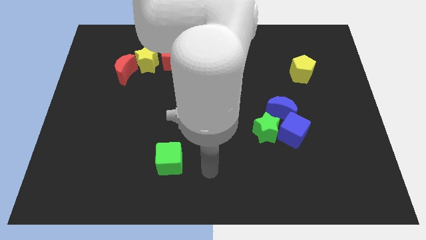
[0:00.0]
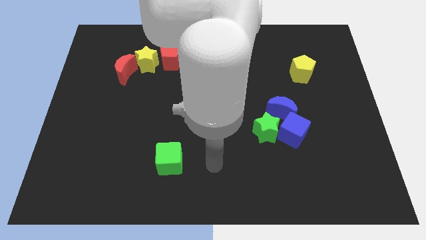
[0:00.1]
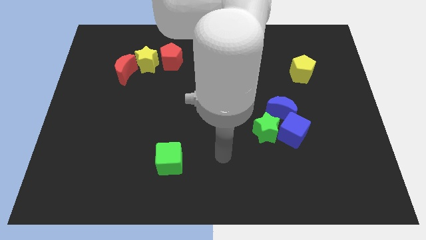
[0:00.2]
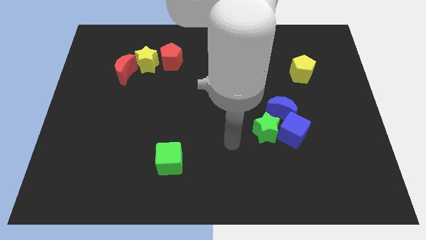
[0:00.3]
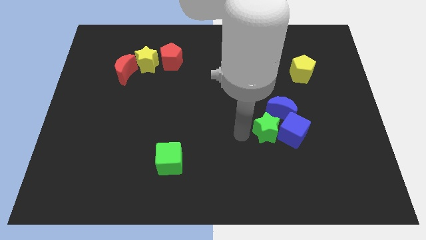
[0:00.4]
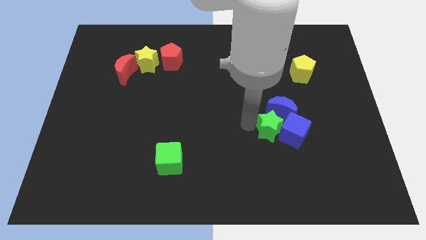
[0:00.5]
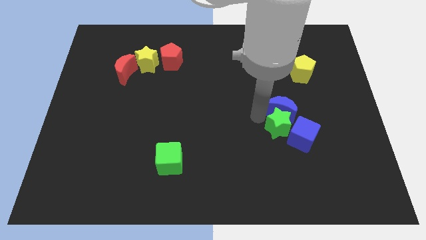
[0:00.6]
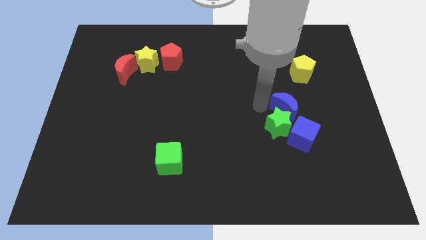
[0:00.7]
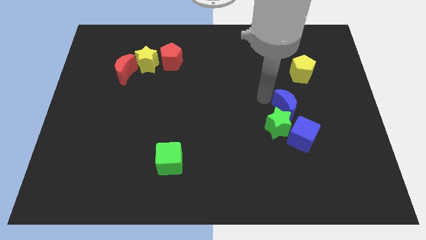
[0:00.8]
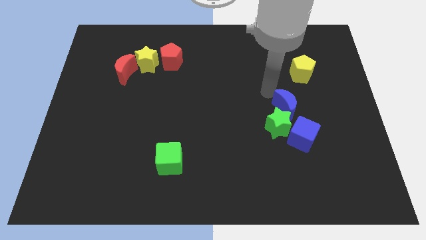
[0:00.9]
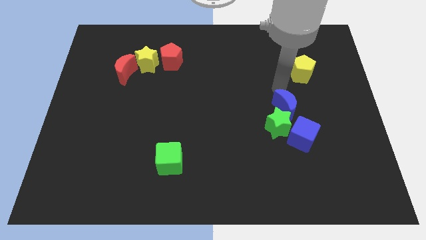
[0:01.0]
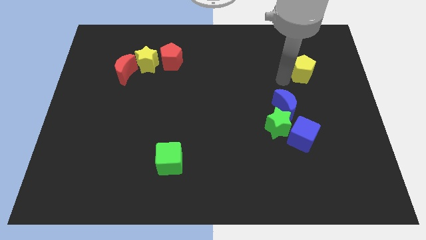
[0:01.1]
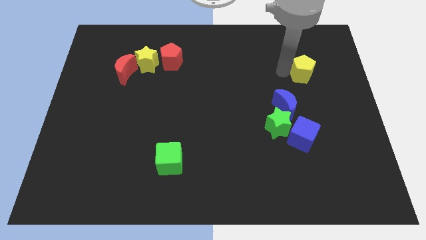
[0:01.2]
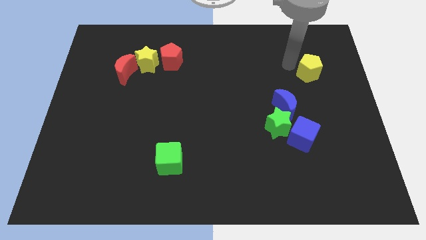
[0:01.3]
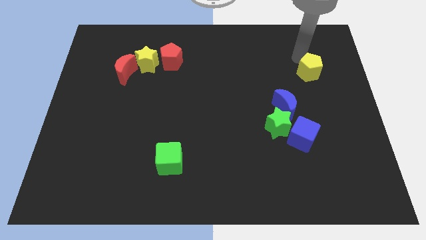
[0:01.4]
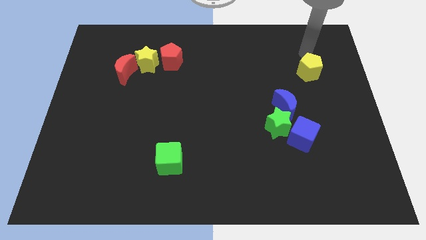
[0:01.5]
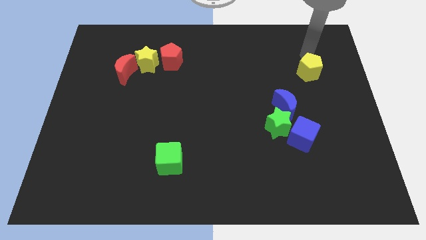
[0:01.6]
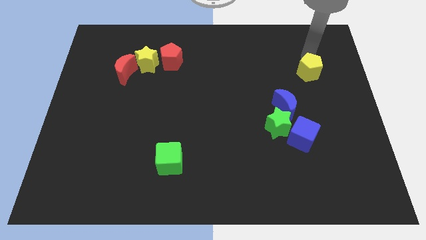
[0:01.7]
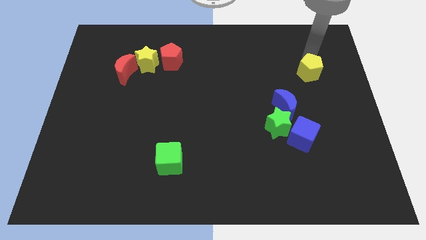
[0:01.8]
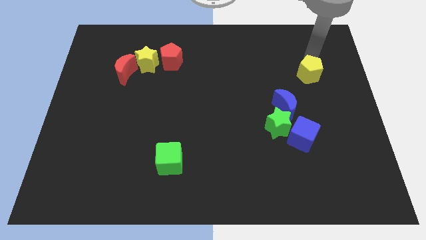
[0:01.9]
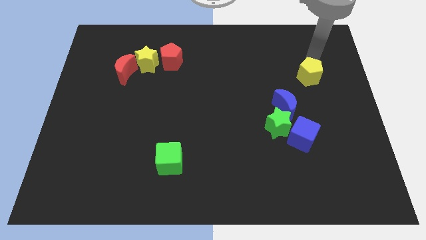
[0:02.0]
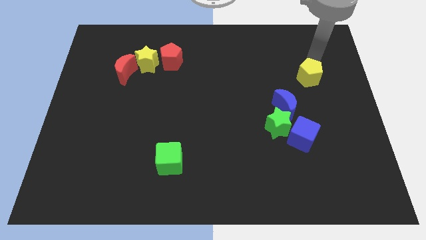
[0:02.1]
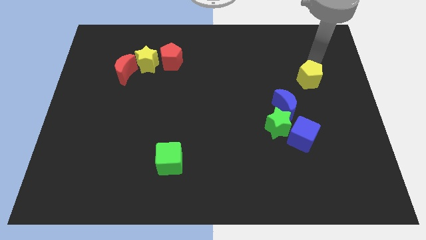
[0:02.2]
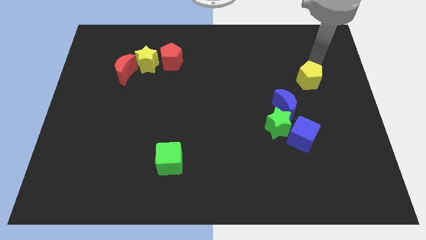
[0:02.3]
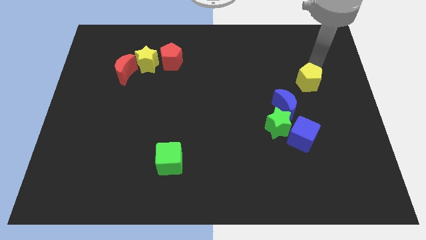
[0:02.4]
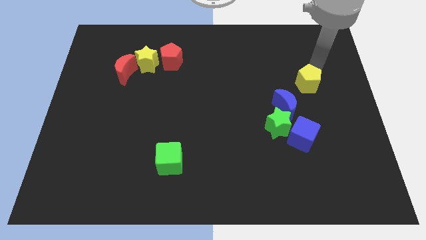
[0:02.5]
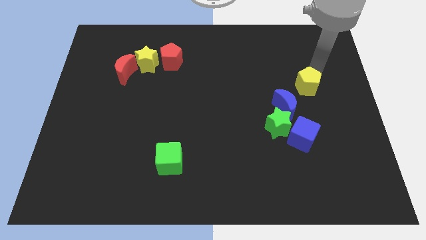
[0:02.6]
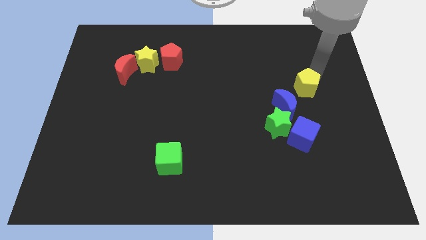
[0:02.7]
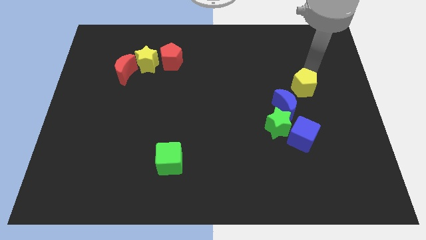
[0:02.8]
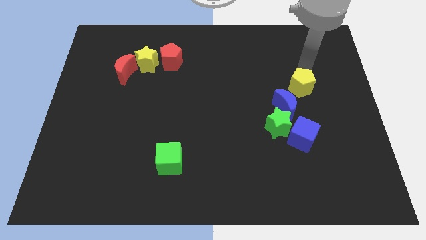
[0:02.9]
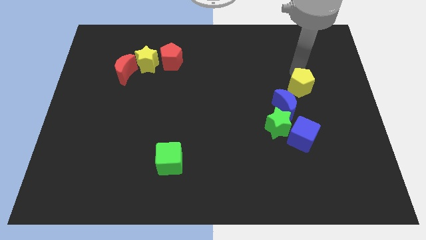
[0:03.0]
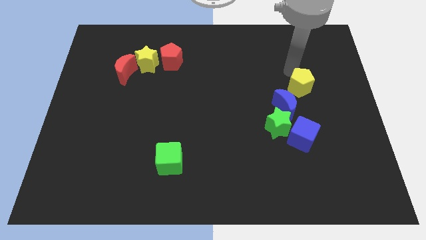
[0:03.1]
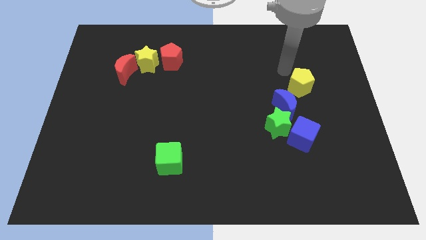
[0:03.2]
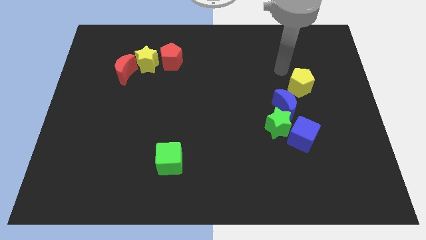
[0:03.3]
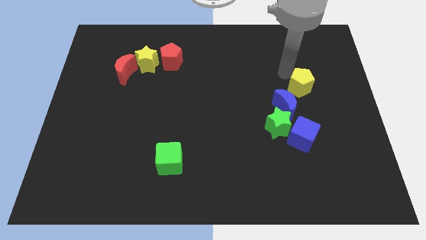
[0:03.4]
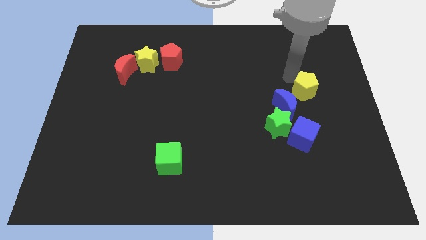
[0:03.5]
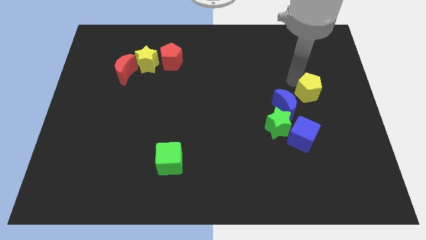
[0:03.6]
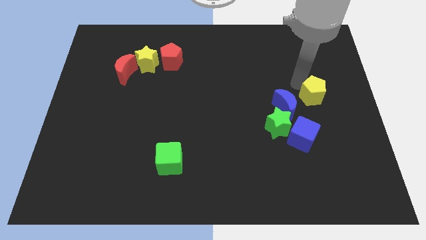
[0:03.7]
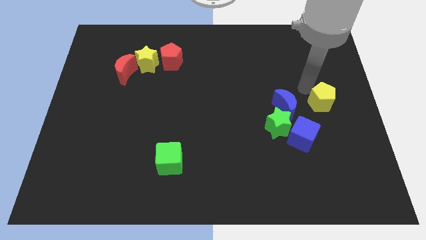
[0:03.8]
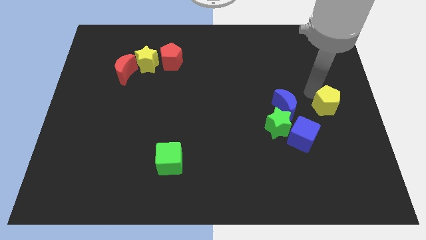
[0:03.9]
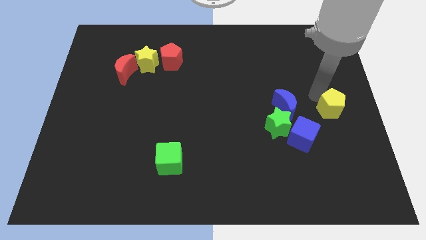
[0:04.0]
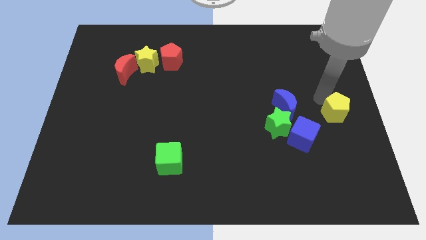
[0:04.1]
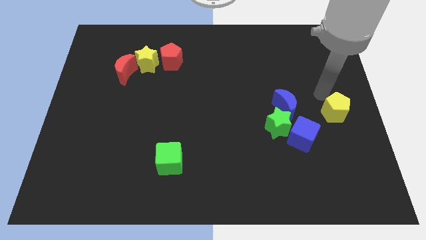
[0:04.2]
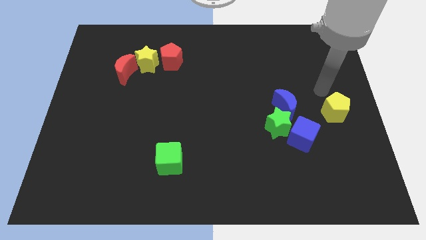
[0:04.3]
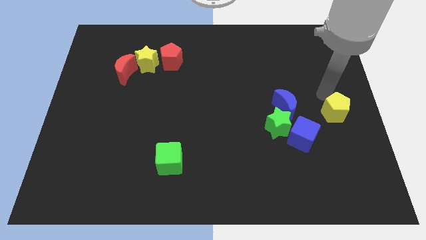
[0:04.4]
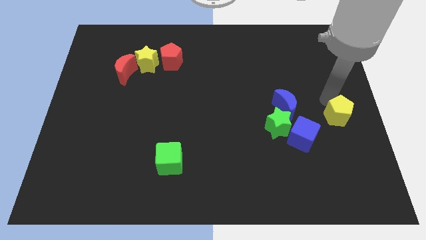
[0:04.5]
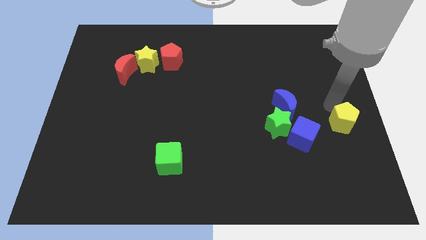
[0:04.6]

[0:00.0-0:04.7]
push the yellow pentagon right of the blue cube

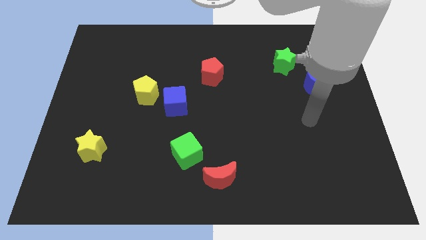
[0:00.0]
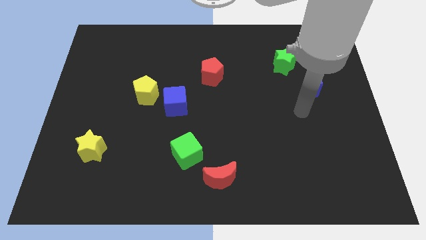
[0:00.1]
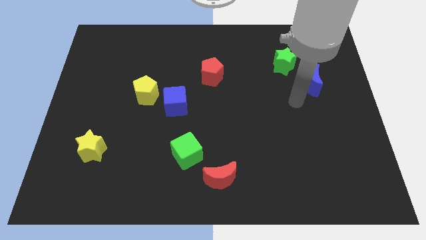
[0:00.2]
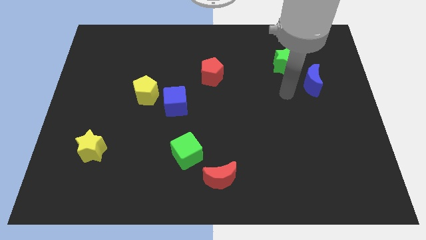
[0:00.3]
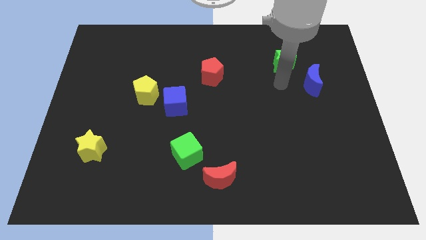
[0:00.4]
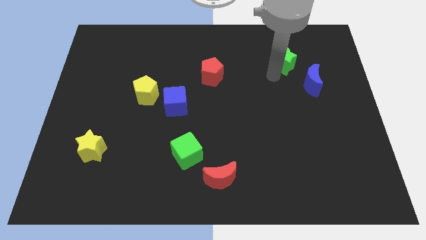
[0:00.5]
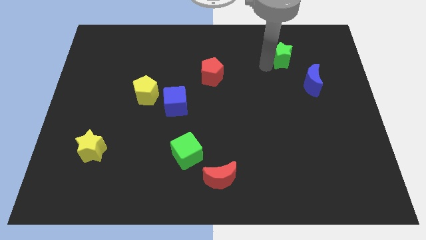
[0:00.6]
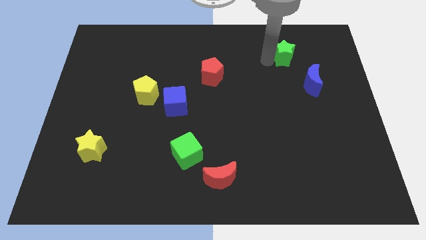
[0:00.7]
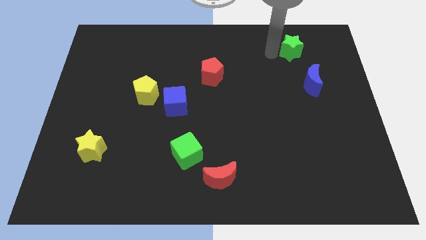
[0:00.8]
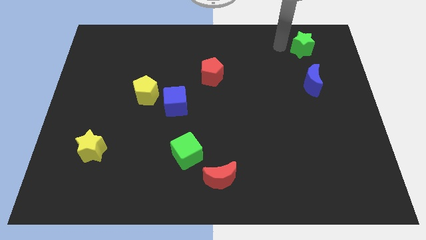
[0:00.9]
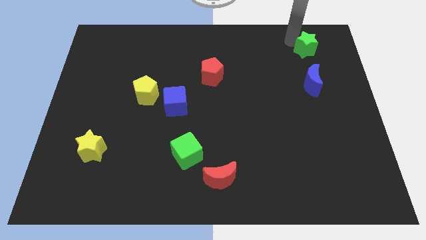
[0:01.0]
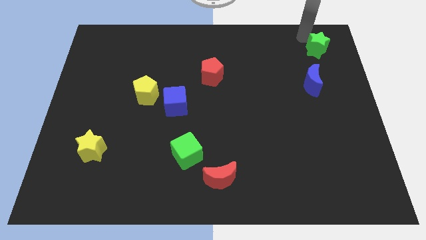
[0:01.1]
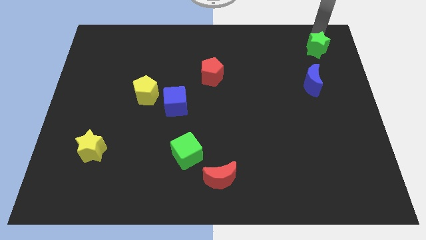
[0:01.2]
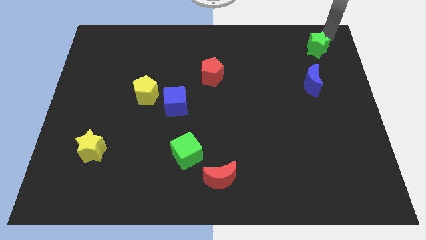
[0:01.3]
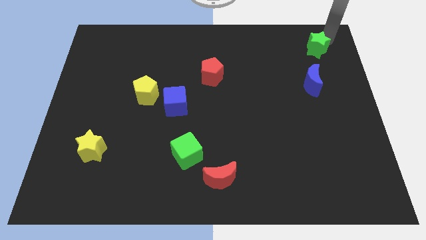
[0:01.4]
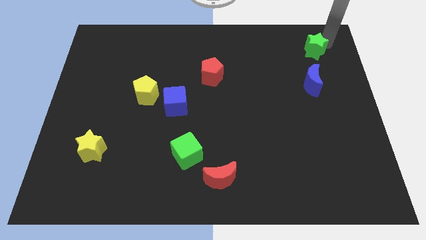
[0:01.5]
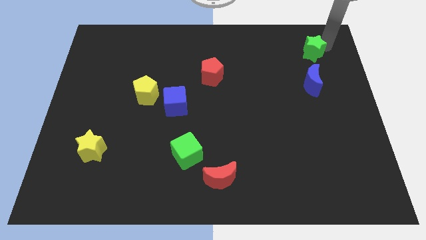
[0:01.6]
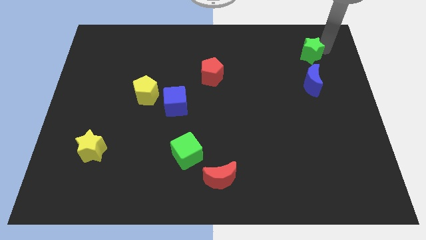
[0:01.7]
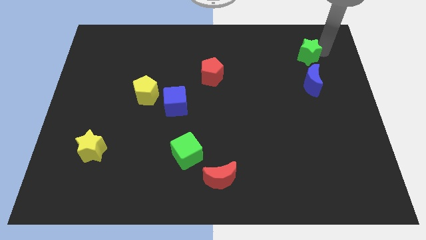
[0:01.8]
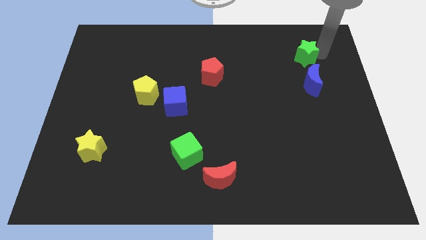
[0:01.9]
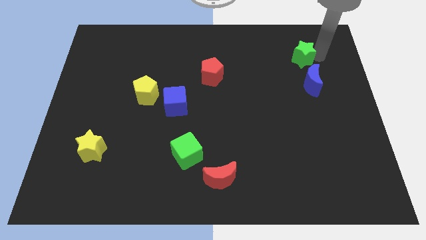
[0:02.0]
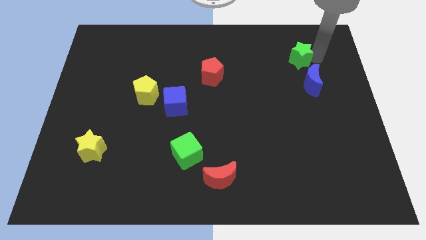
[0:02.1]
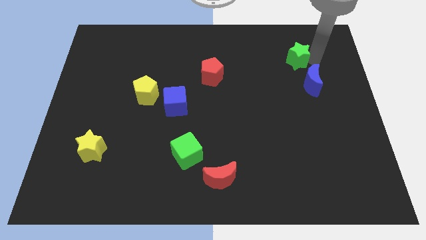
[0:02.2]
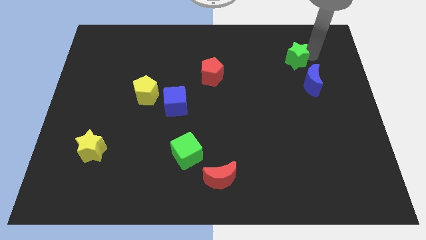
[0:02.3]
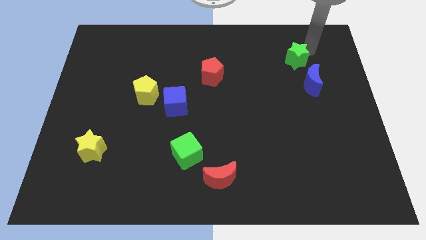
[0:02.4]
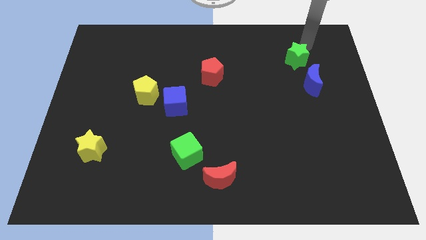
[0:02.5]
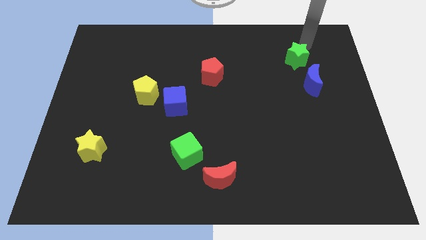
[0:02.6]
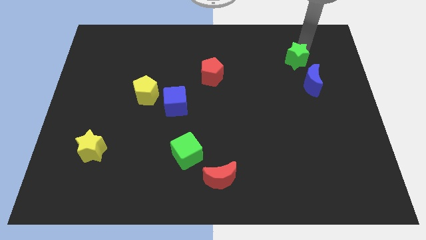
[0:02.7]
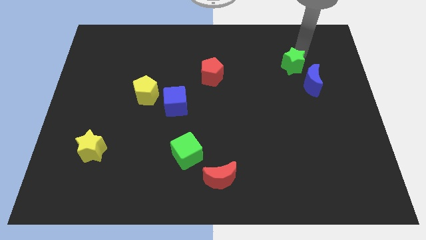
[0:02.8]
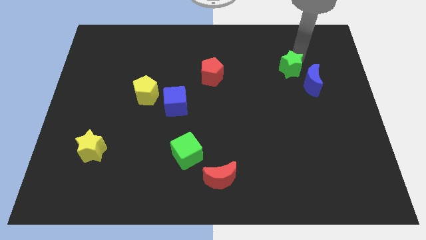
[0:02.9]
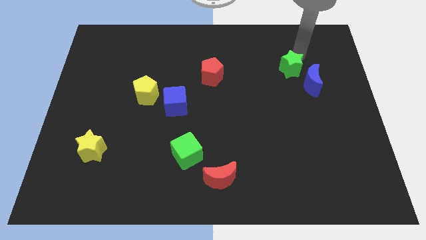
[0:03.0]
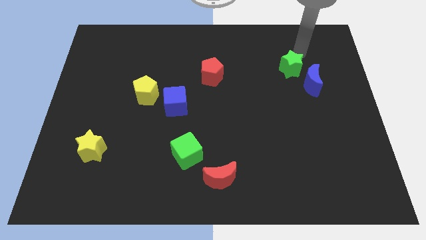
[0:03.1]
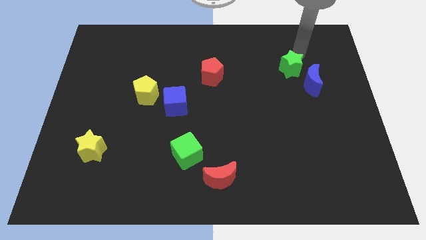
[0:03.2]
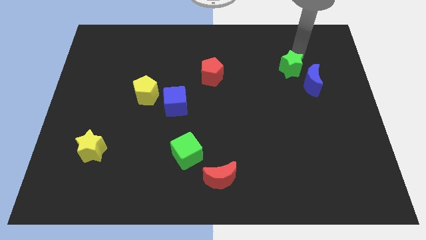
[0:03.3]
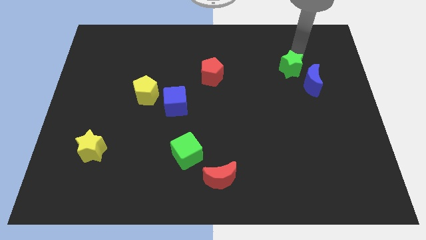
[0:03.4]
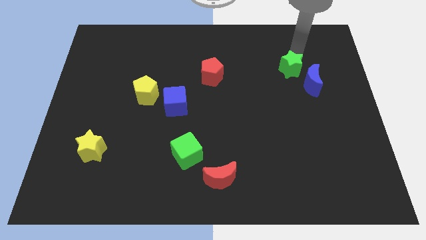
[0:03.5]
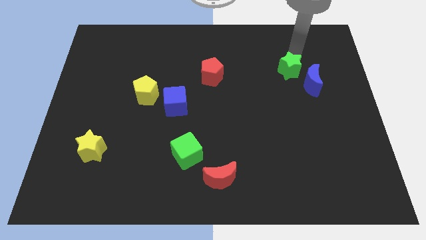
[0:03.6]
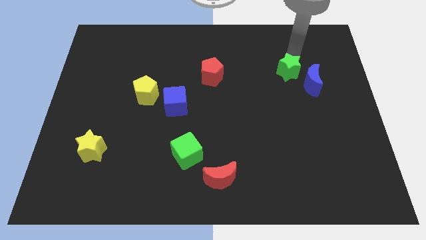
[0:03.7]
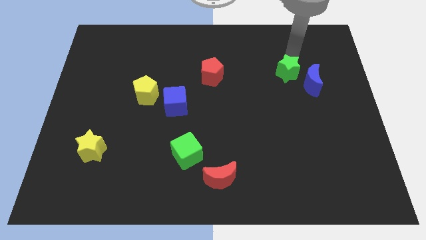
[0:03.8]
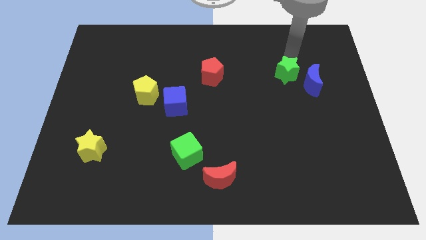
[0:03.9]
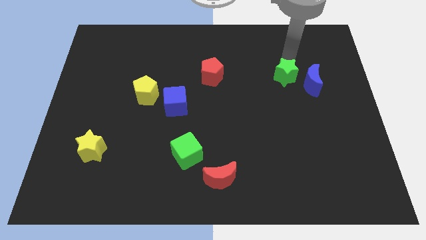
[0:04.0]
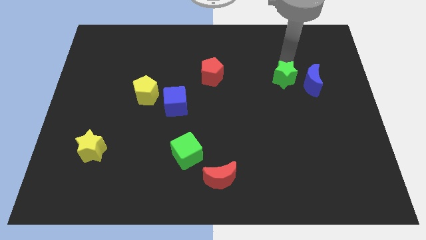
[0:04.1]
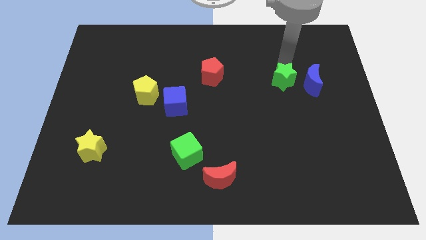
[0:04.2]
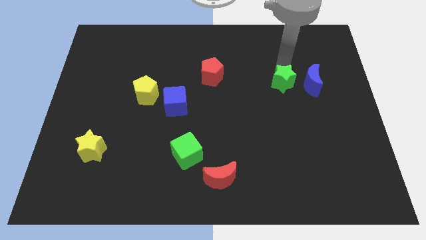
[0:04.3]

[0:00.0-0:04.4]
push the green star to the bottom left side of the blue moon
